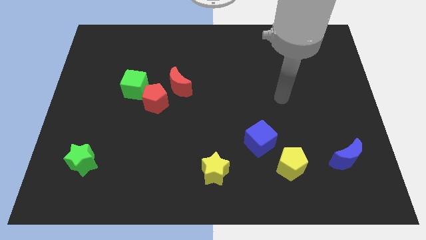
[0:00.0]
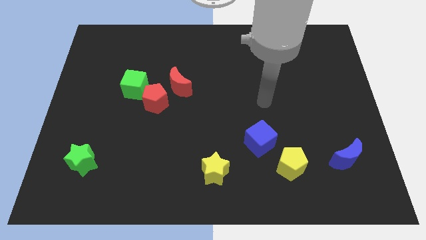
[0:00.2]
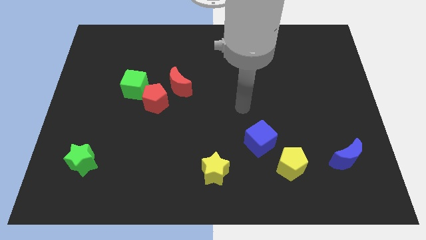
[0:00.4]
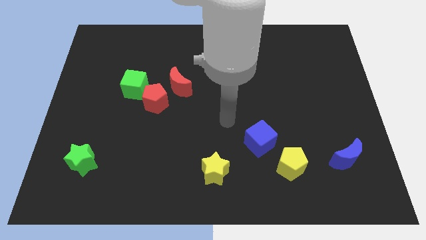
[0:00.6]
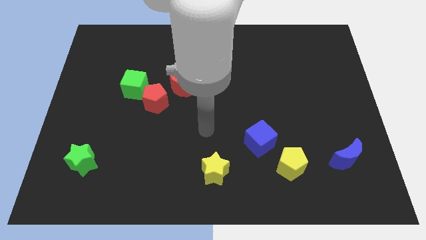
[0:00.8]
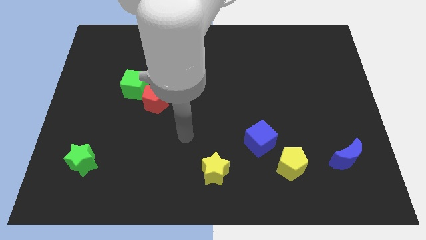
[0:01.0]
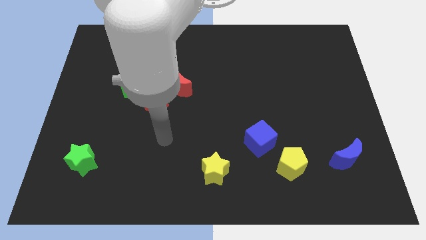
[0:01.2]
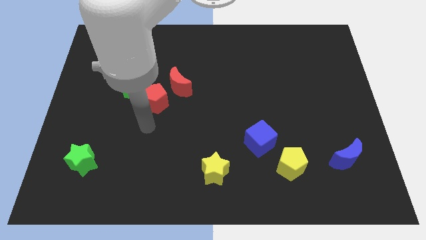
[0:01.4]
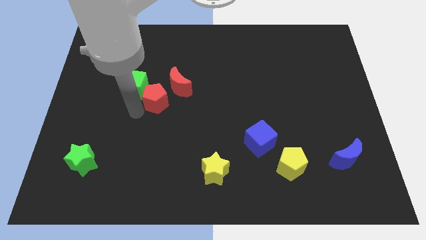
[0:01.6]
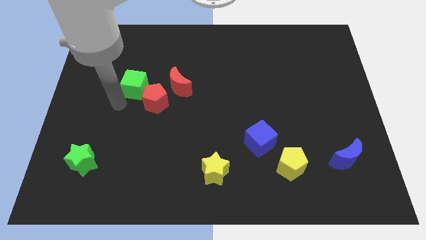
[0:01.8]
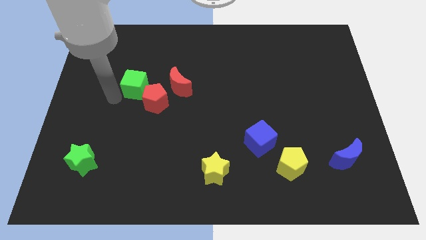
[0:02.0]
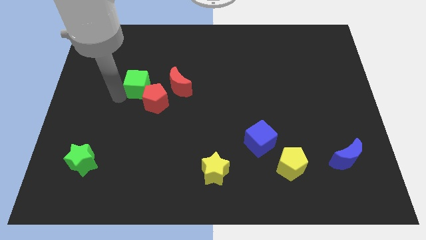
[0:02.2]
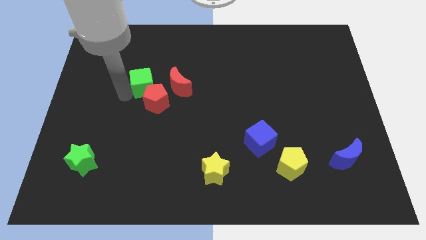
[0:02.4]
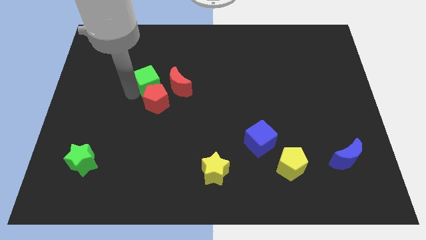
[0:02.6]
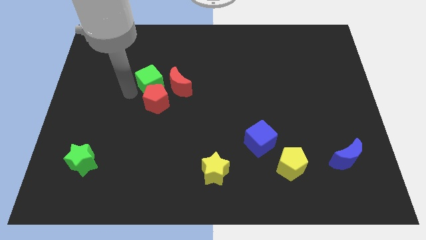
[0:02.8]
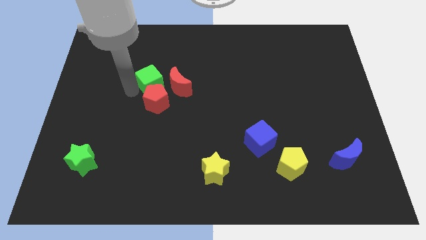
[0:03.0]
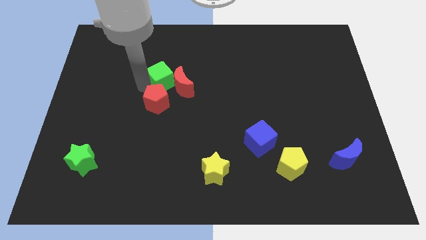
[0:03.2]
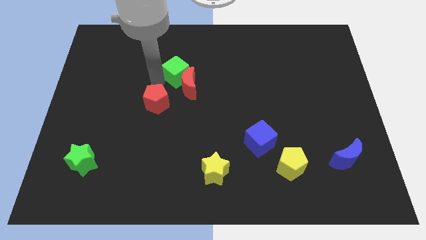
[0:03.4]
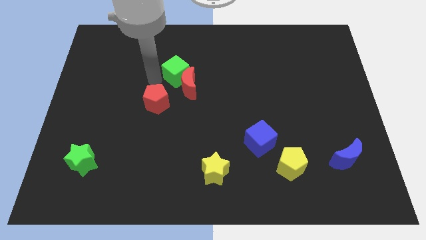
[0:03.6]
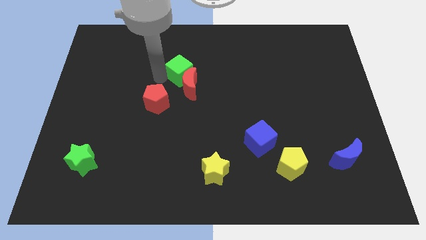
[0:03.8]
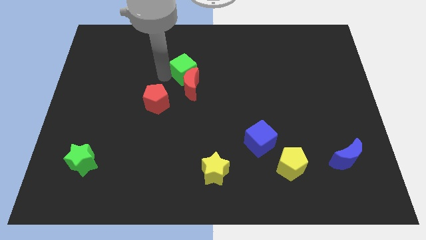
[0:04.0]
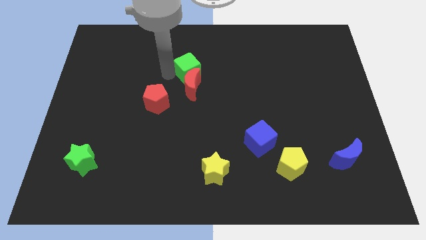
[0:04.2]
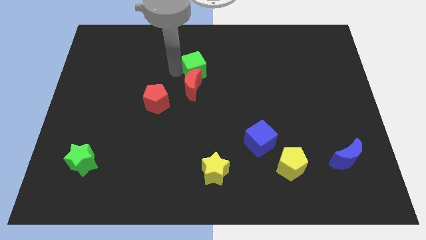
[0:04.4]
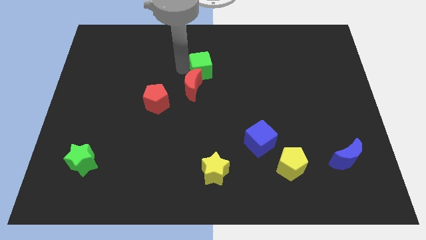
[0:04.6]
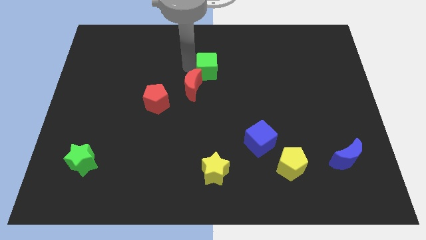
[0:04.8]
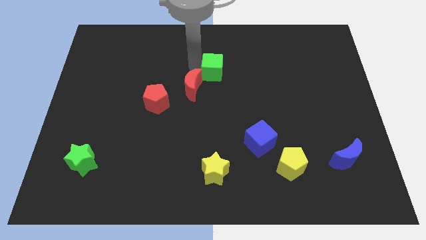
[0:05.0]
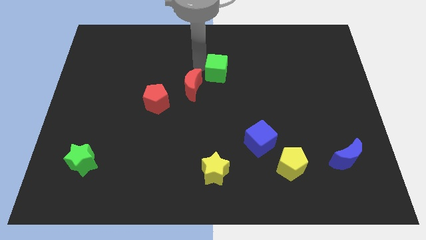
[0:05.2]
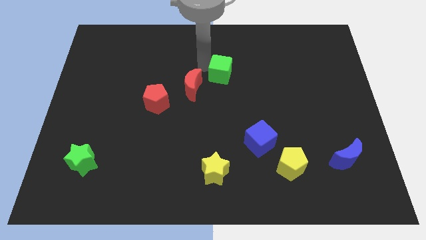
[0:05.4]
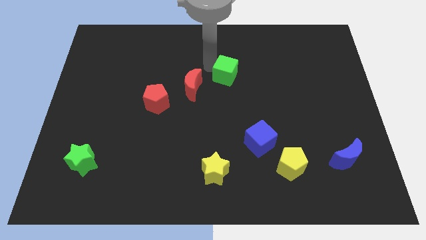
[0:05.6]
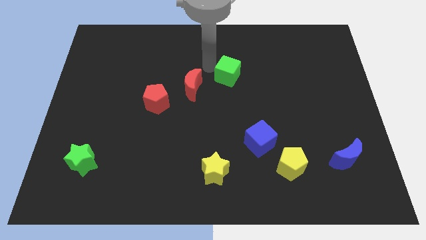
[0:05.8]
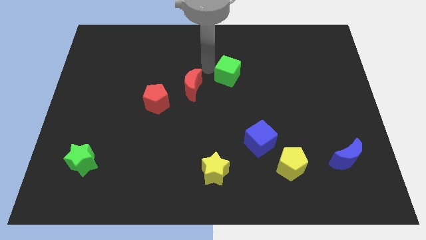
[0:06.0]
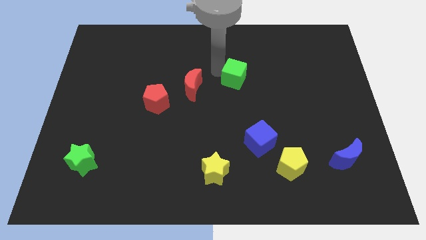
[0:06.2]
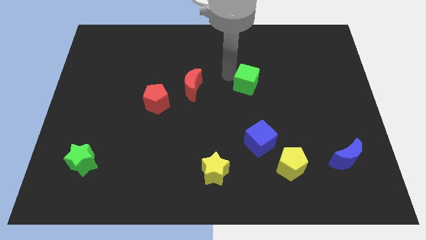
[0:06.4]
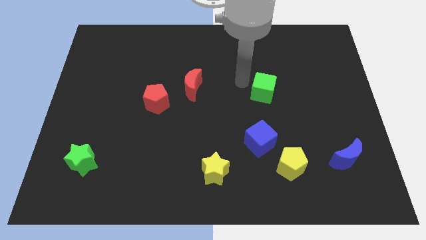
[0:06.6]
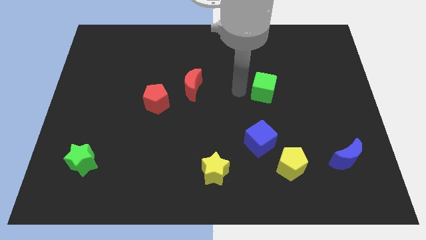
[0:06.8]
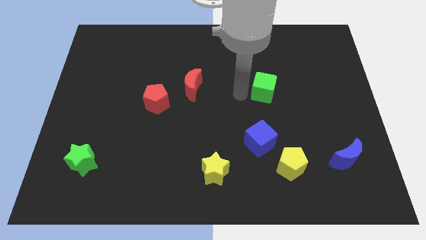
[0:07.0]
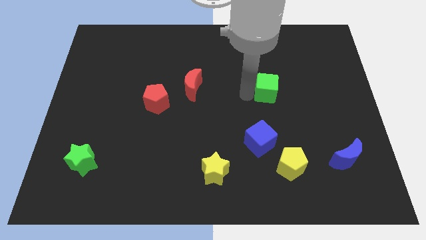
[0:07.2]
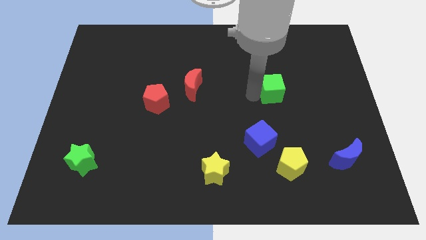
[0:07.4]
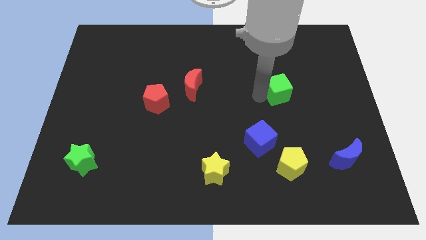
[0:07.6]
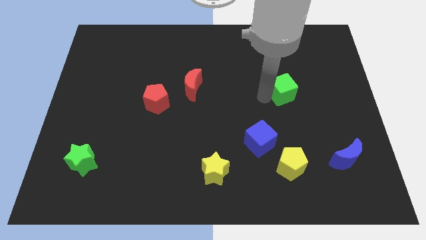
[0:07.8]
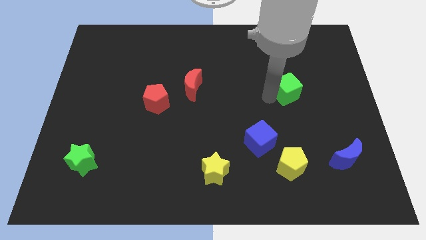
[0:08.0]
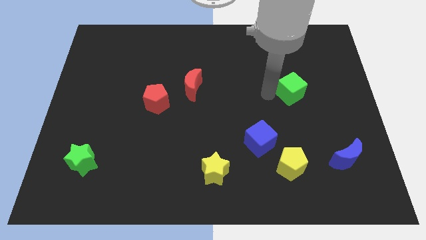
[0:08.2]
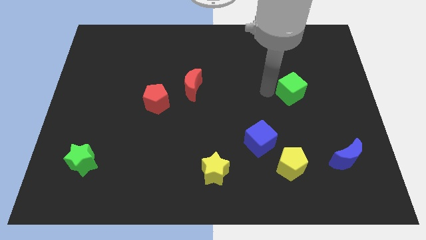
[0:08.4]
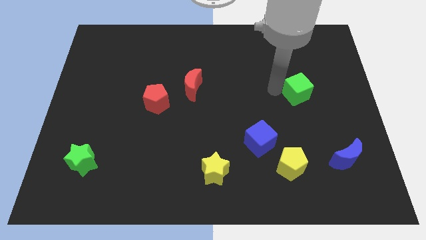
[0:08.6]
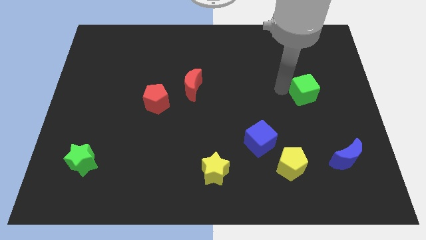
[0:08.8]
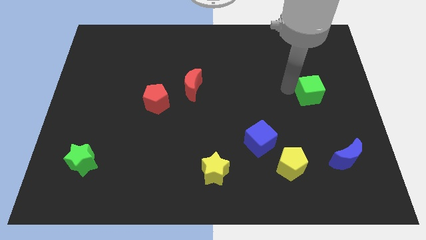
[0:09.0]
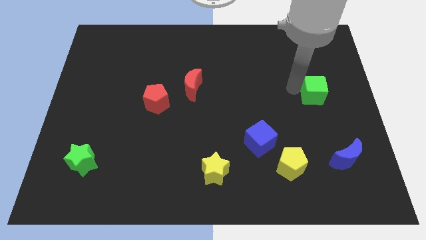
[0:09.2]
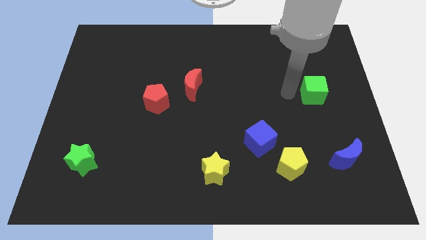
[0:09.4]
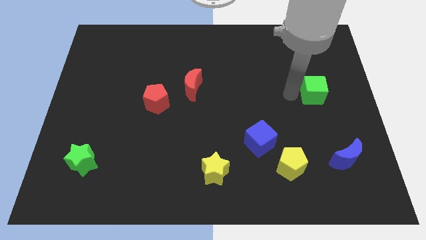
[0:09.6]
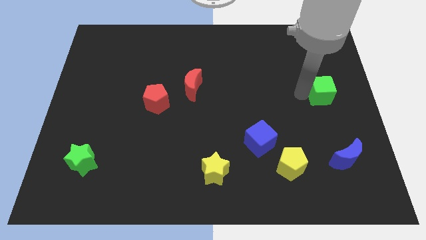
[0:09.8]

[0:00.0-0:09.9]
put the green cube to the right side of the board

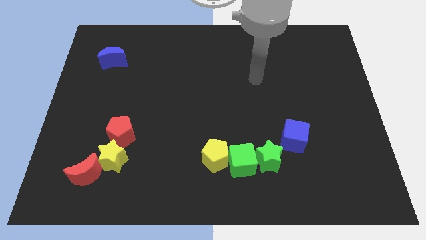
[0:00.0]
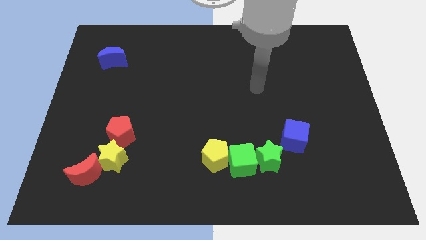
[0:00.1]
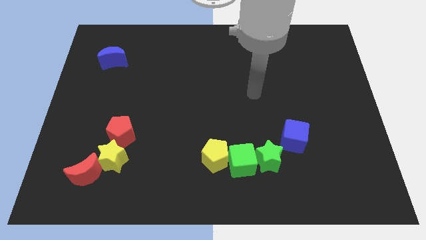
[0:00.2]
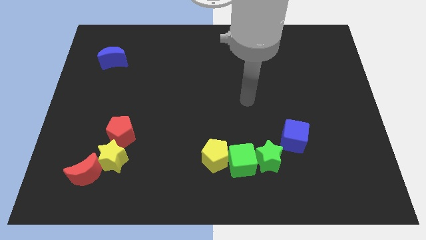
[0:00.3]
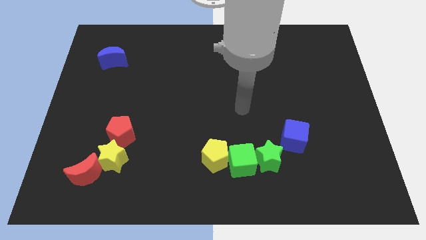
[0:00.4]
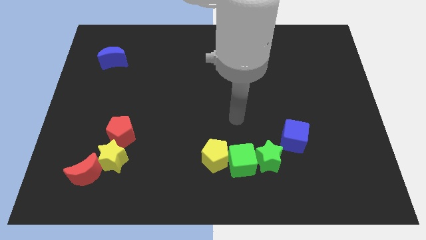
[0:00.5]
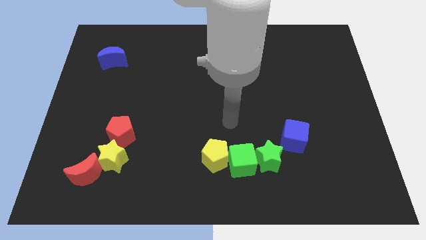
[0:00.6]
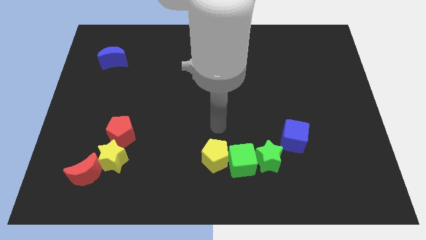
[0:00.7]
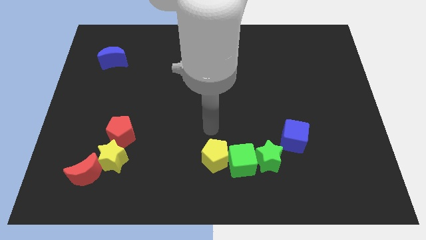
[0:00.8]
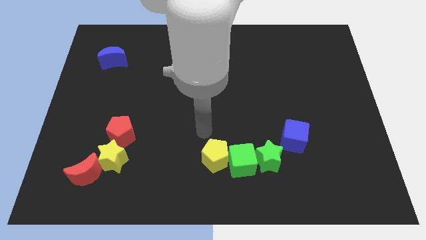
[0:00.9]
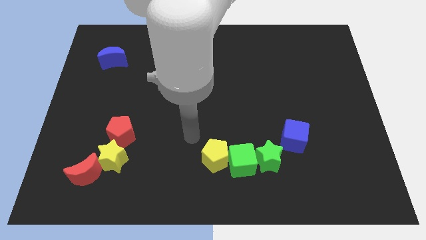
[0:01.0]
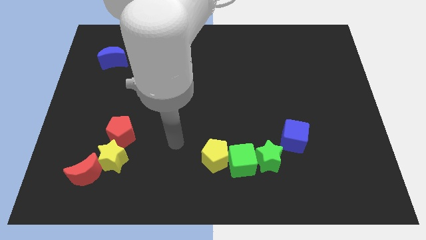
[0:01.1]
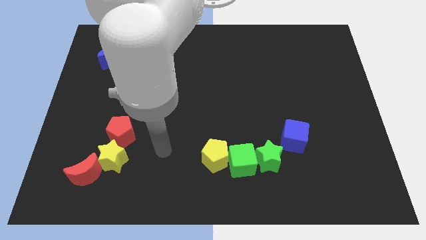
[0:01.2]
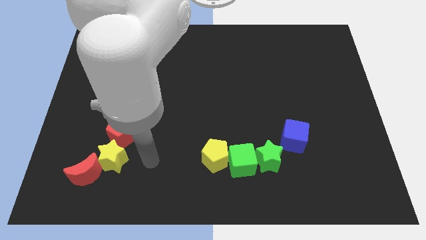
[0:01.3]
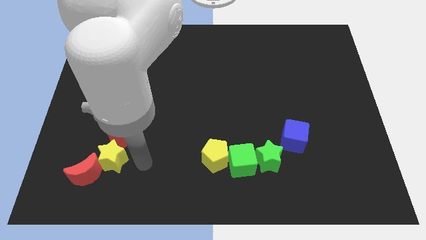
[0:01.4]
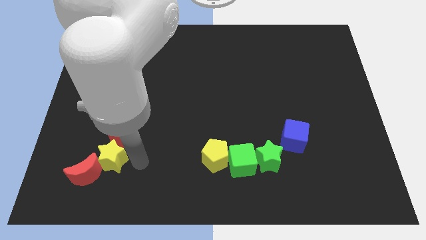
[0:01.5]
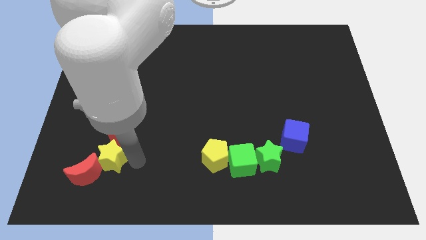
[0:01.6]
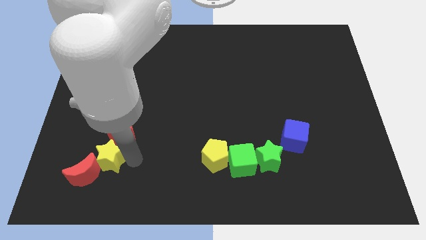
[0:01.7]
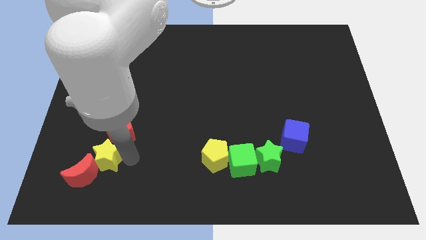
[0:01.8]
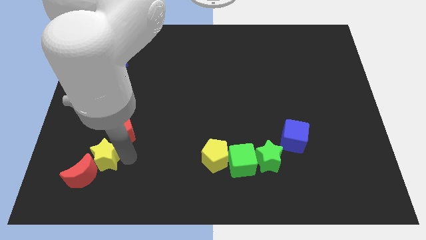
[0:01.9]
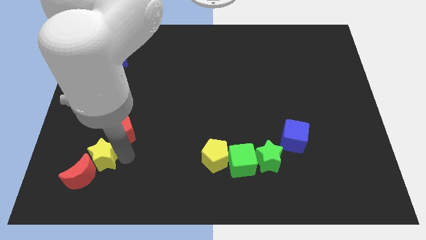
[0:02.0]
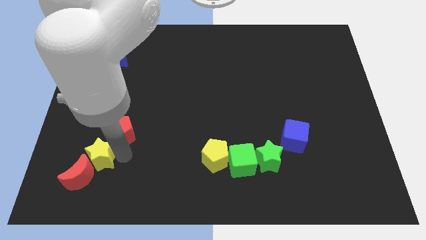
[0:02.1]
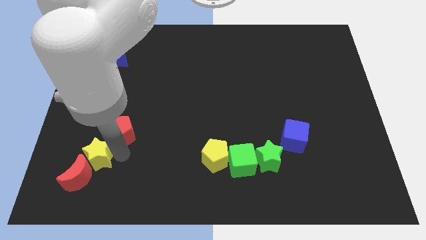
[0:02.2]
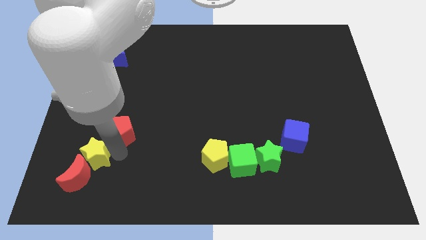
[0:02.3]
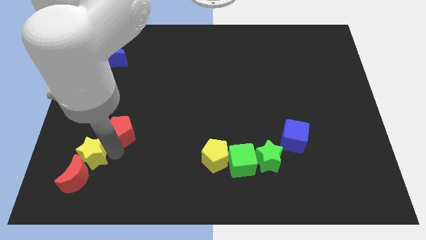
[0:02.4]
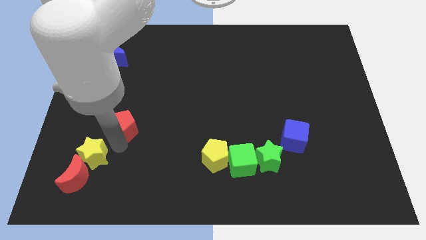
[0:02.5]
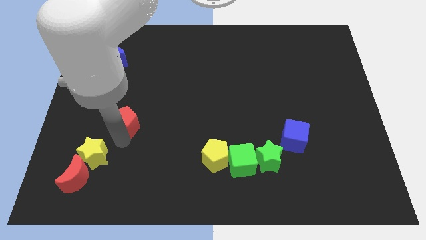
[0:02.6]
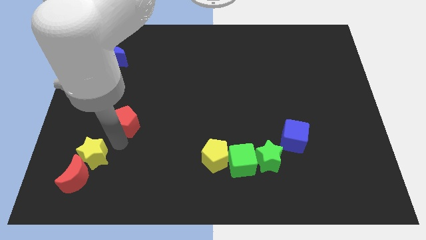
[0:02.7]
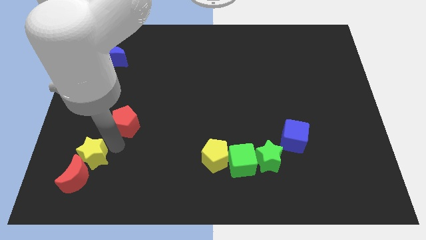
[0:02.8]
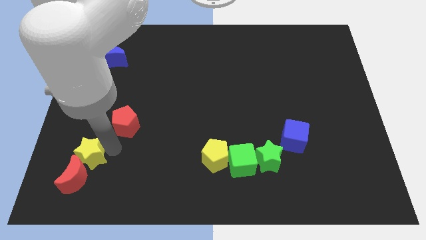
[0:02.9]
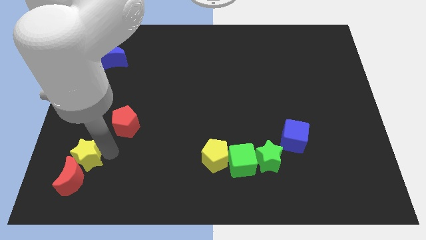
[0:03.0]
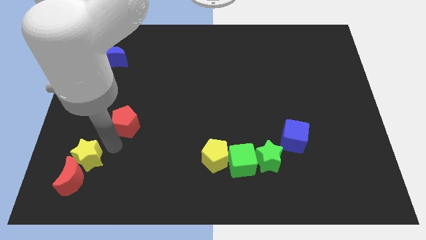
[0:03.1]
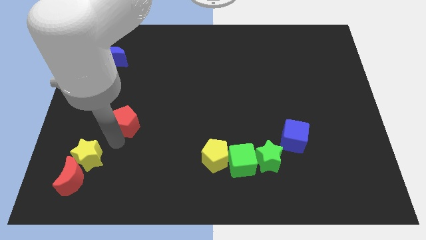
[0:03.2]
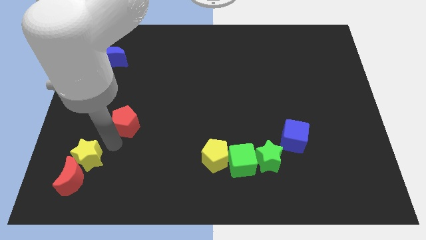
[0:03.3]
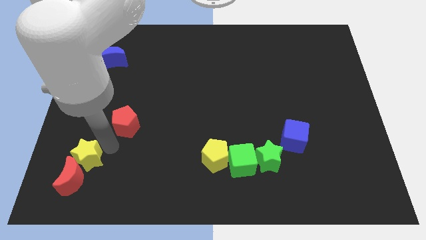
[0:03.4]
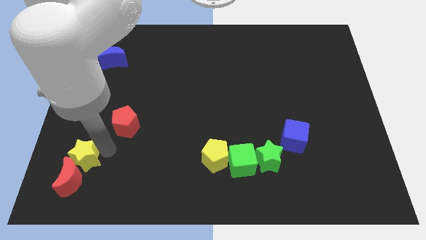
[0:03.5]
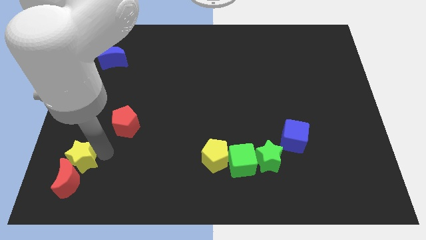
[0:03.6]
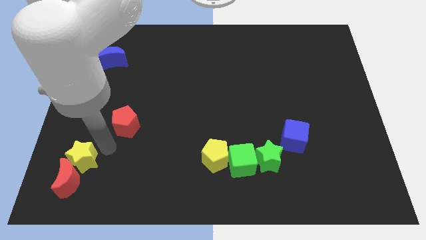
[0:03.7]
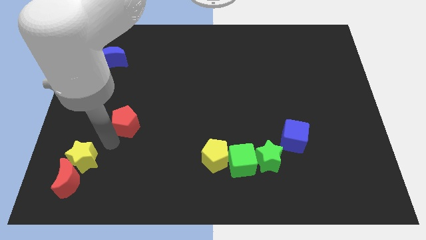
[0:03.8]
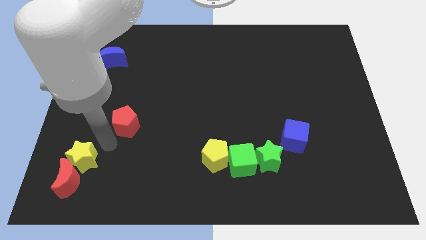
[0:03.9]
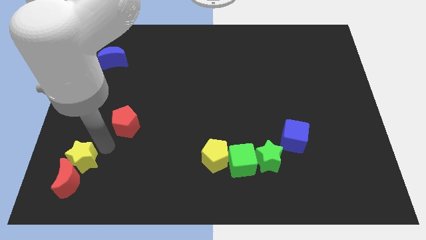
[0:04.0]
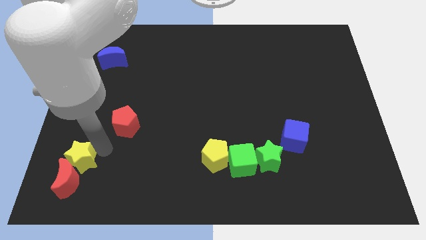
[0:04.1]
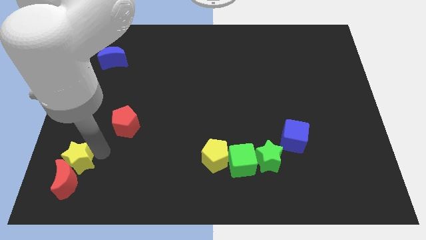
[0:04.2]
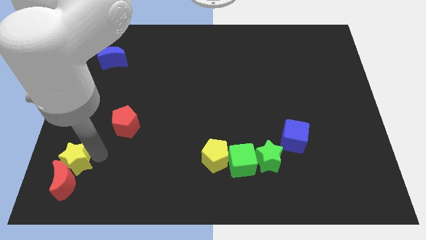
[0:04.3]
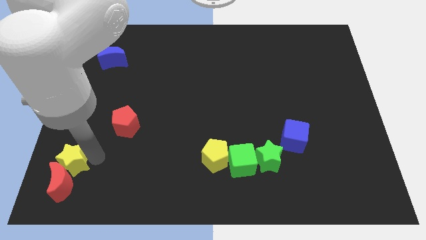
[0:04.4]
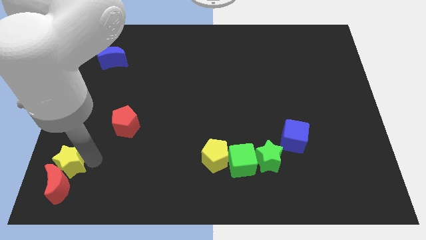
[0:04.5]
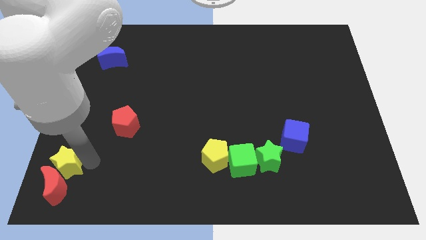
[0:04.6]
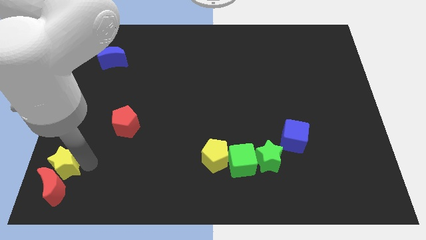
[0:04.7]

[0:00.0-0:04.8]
push the yellow star to the lower left corner
